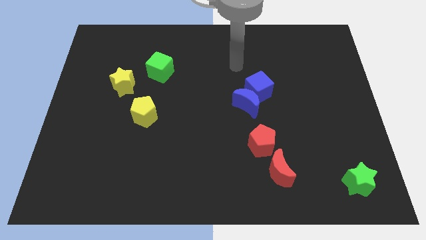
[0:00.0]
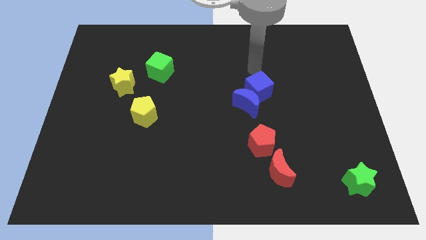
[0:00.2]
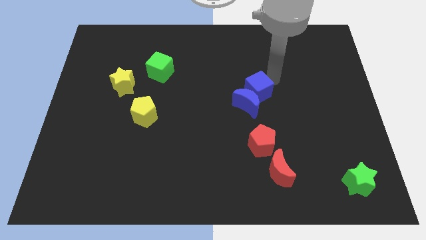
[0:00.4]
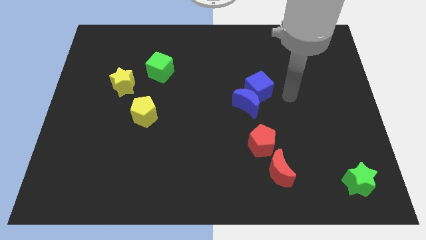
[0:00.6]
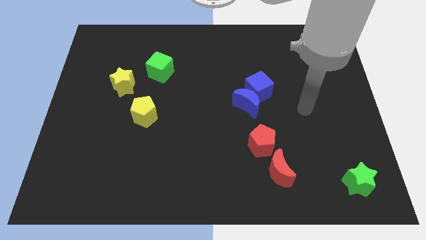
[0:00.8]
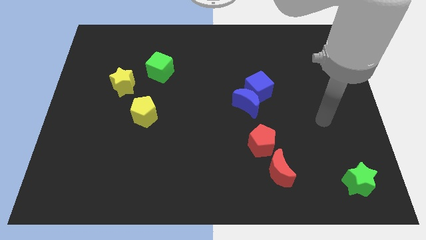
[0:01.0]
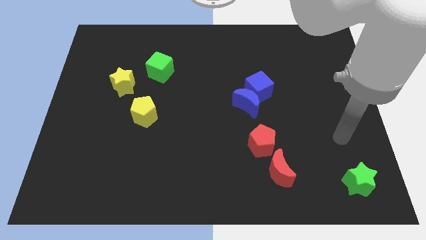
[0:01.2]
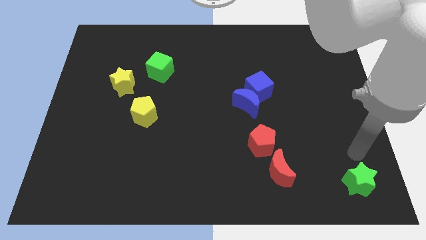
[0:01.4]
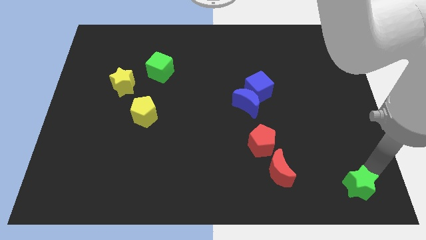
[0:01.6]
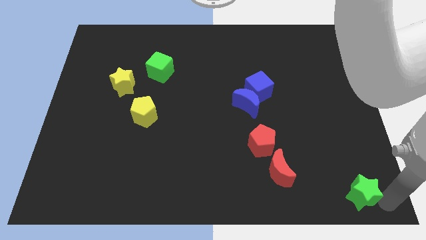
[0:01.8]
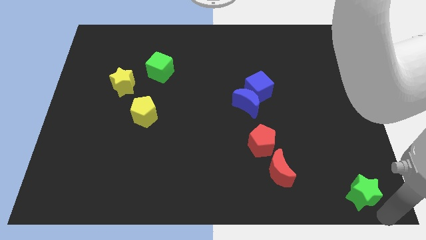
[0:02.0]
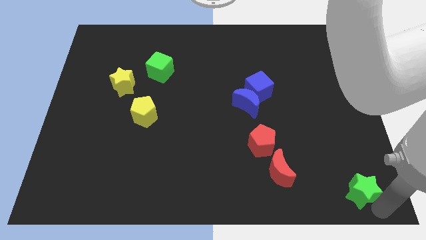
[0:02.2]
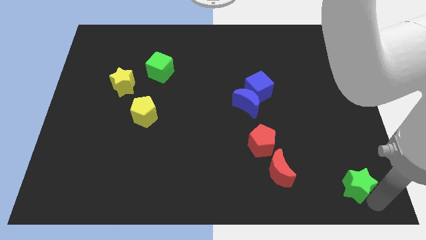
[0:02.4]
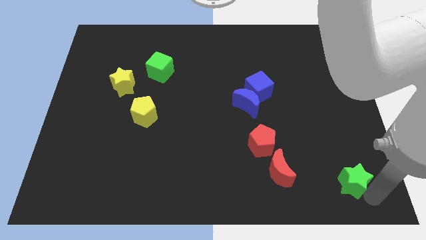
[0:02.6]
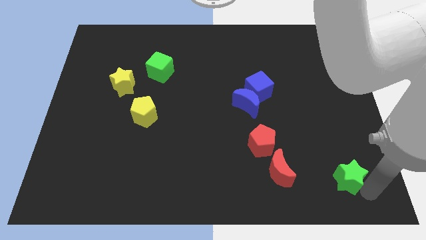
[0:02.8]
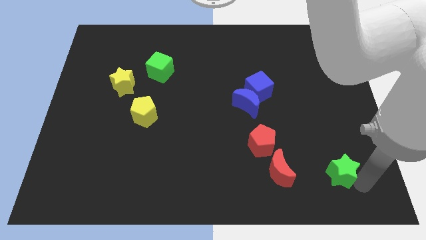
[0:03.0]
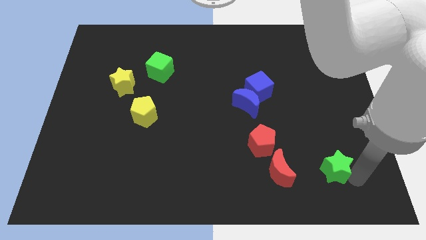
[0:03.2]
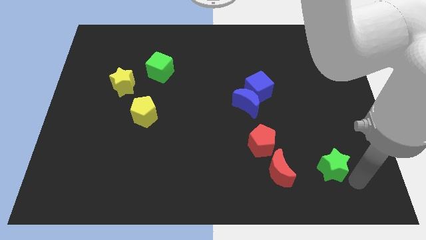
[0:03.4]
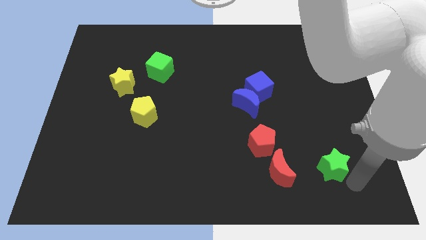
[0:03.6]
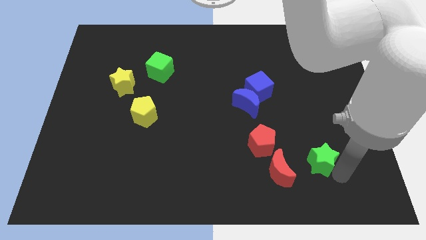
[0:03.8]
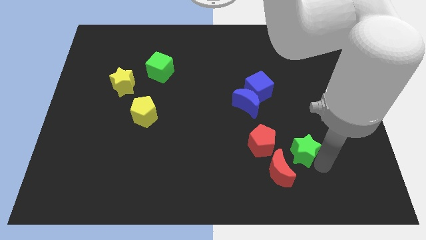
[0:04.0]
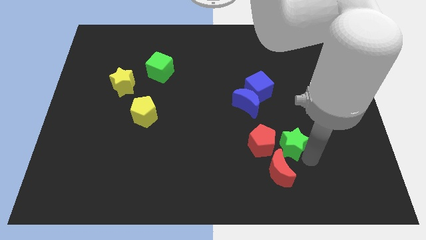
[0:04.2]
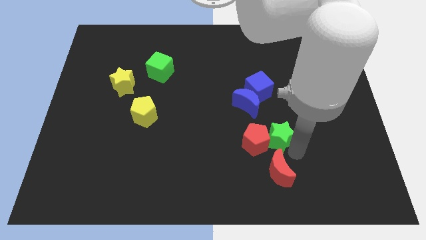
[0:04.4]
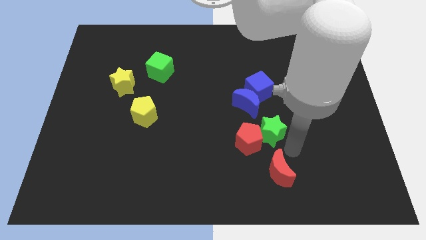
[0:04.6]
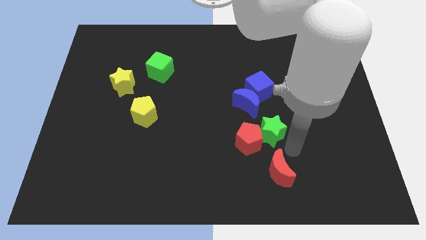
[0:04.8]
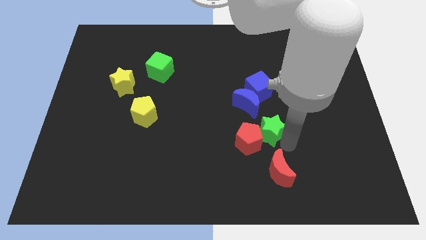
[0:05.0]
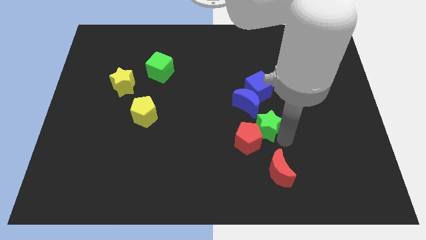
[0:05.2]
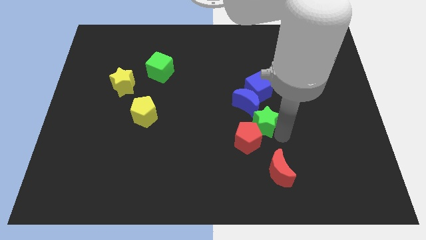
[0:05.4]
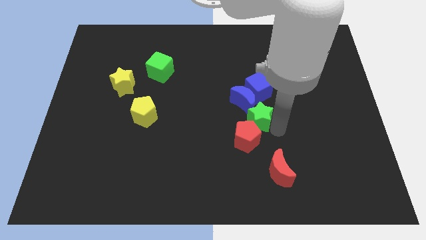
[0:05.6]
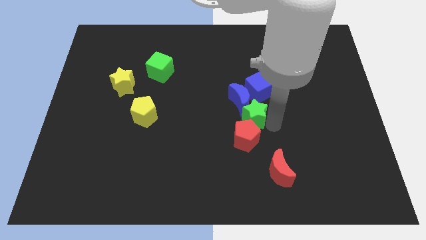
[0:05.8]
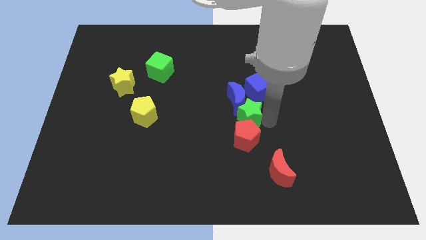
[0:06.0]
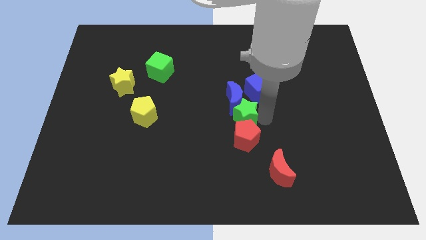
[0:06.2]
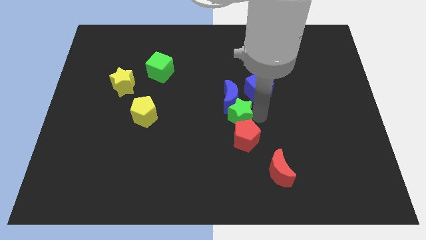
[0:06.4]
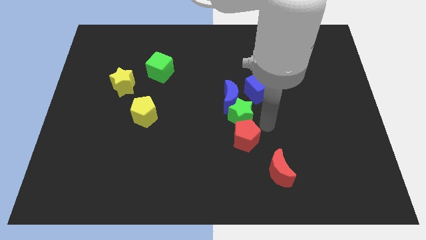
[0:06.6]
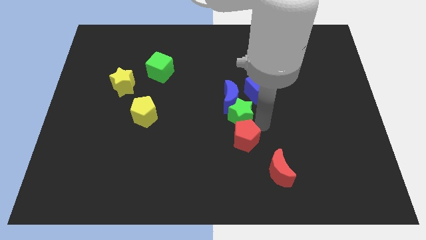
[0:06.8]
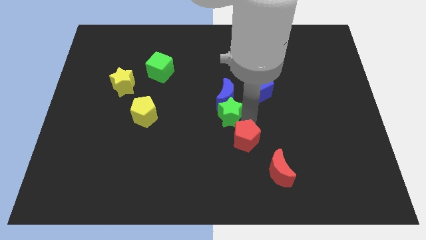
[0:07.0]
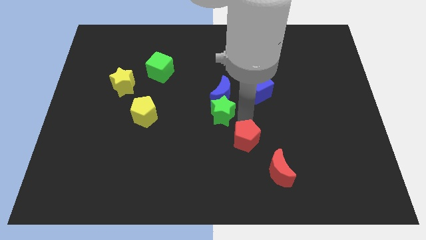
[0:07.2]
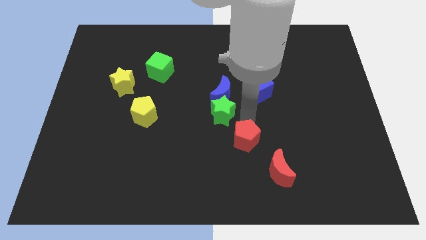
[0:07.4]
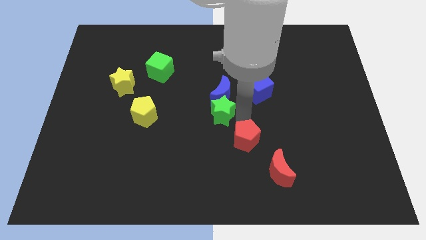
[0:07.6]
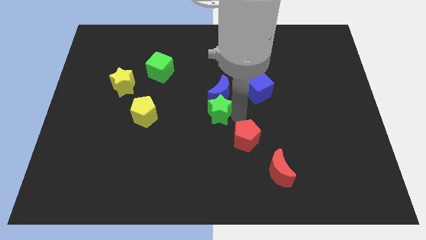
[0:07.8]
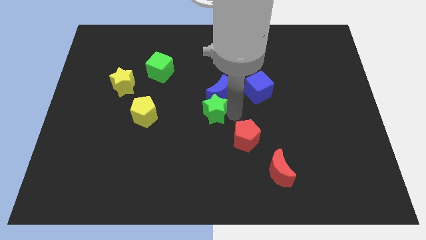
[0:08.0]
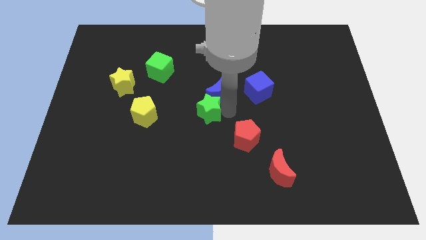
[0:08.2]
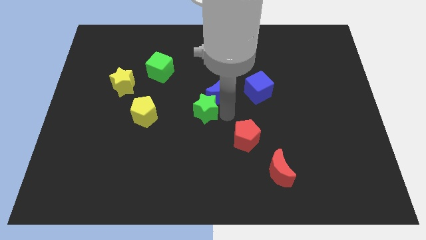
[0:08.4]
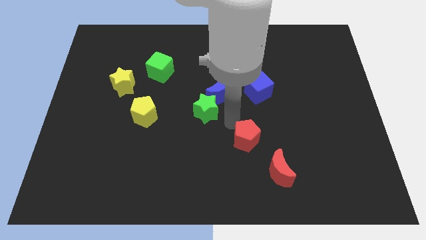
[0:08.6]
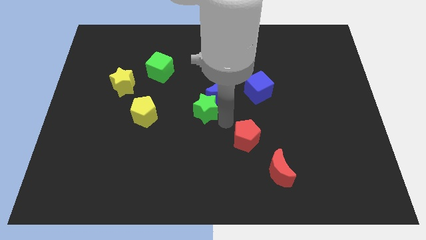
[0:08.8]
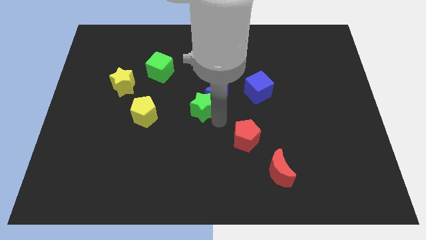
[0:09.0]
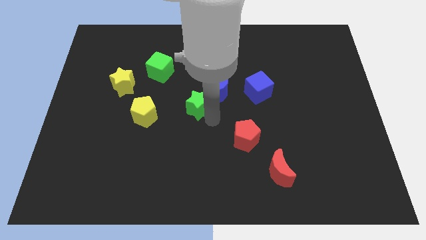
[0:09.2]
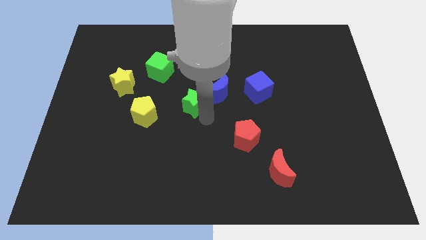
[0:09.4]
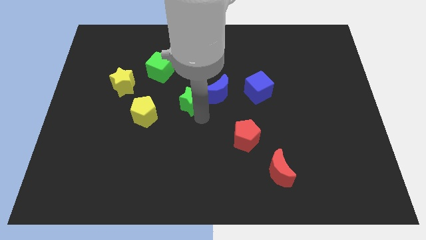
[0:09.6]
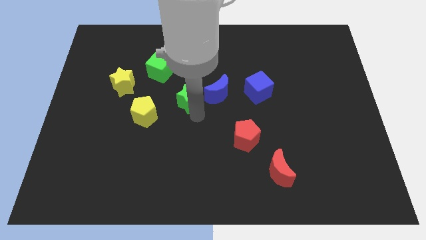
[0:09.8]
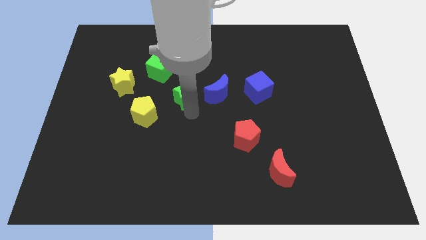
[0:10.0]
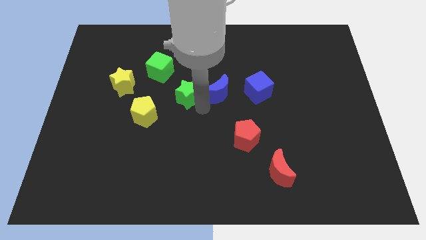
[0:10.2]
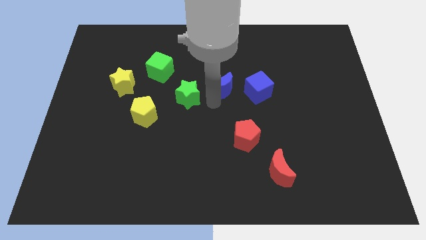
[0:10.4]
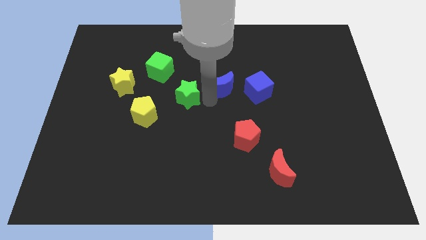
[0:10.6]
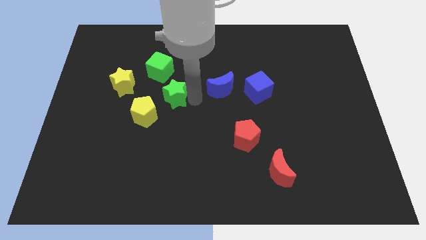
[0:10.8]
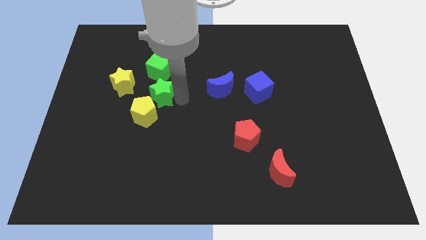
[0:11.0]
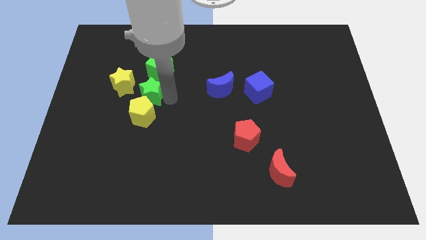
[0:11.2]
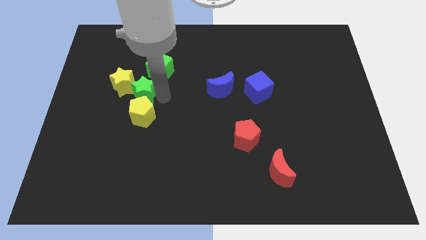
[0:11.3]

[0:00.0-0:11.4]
move the green star diagonally up and to the left of the yellow pentagon
